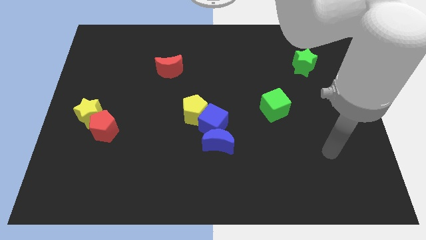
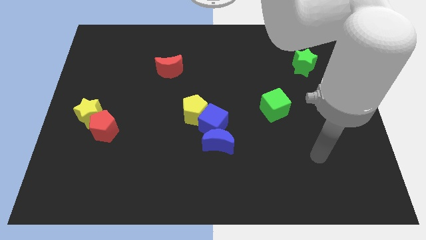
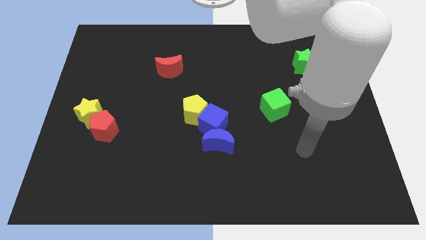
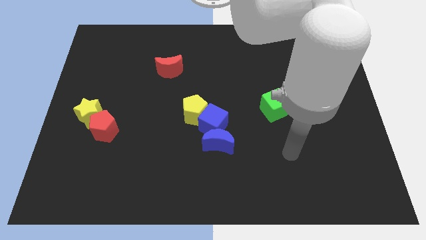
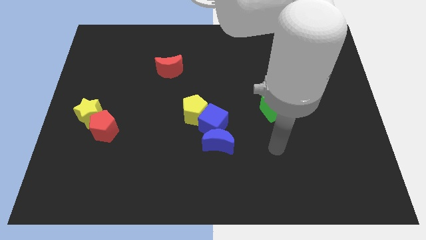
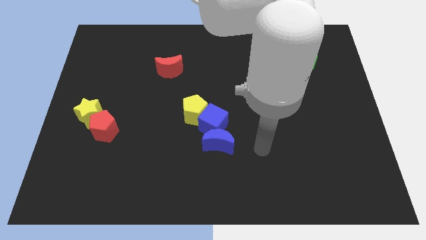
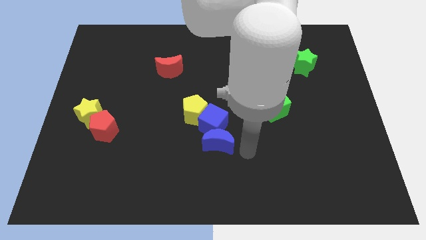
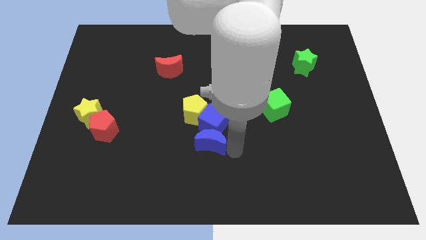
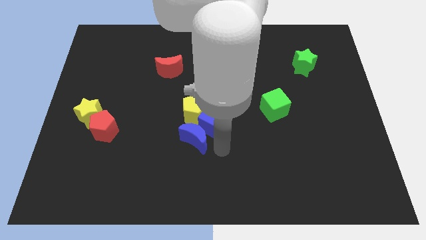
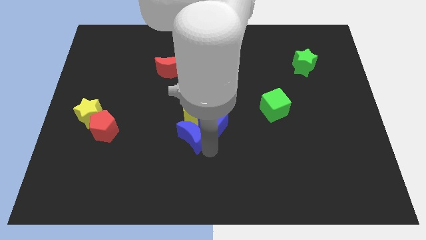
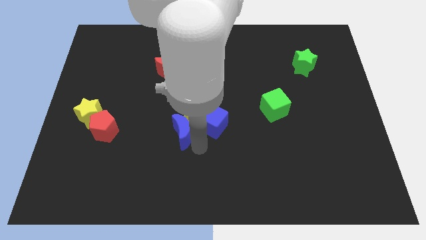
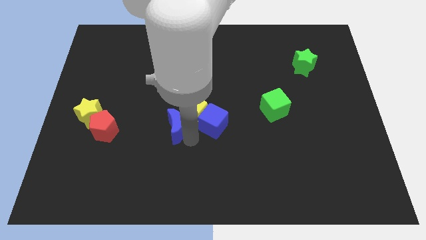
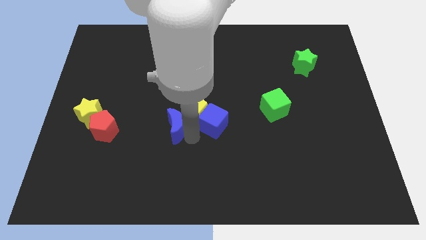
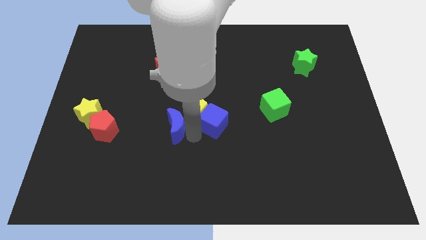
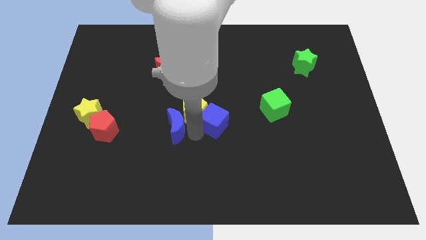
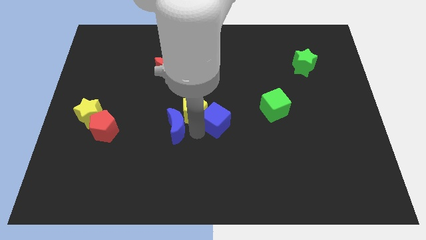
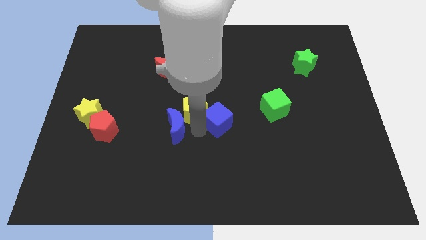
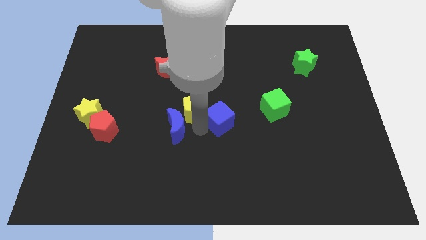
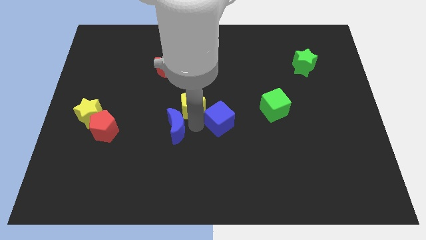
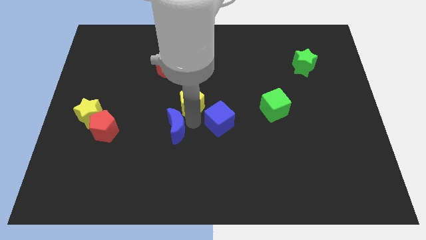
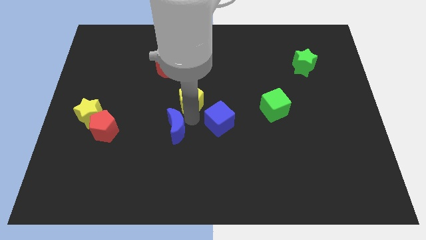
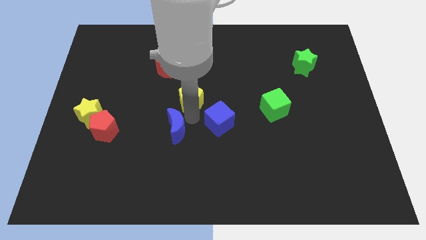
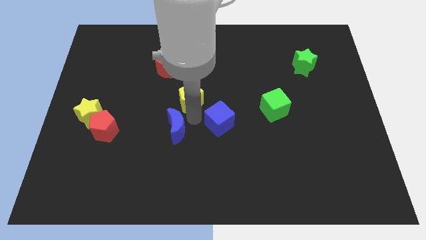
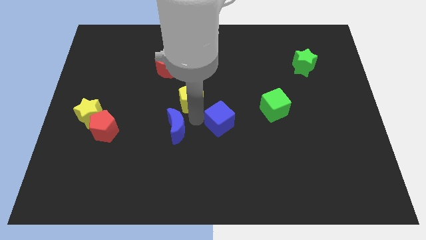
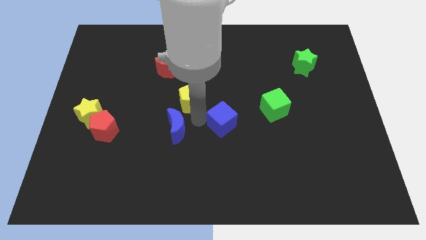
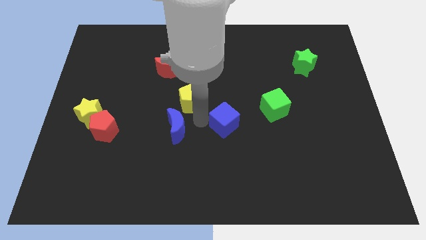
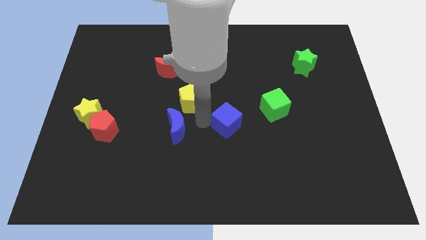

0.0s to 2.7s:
pull the blue cube apart from the yellow pentagon and blue moon

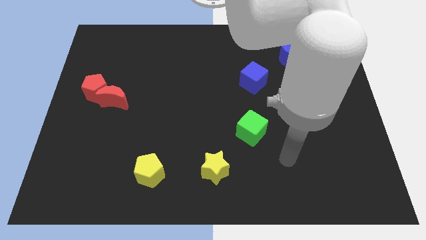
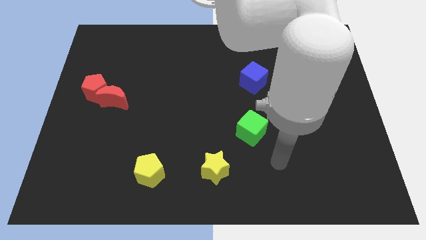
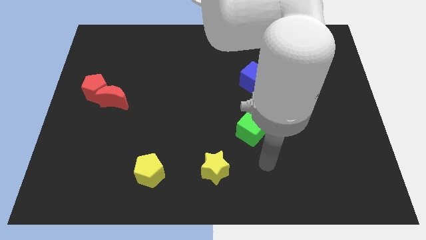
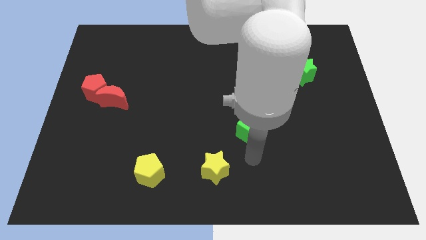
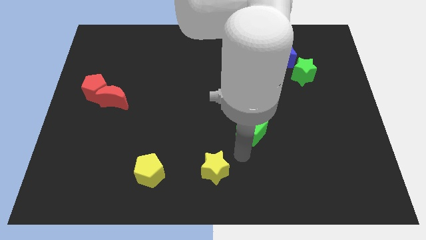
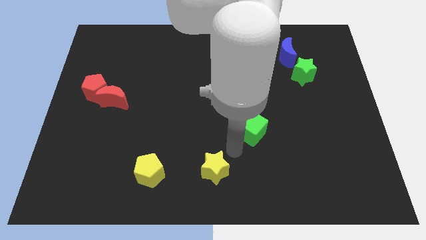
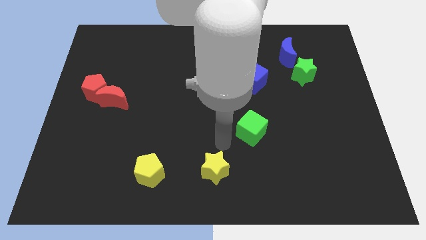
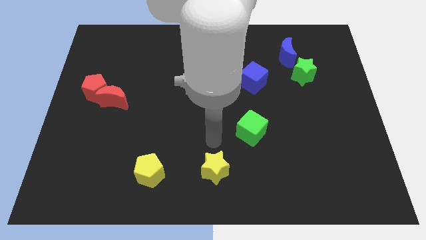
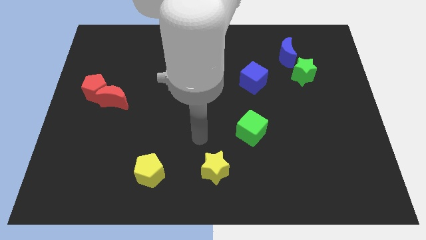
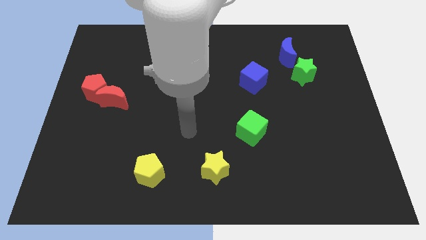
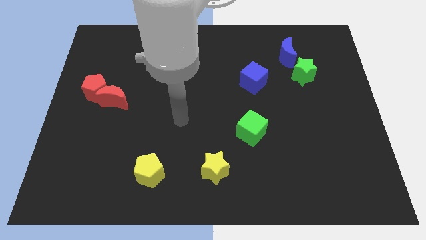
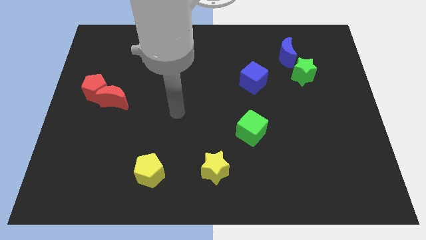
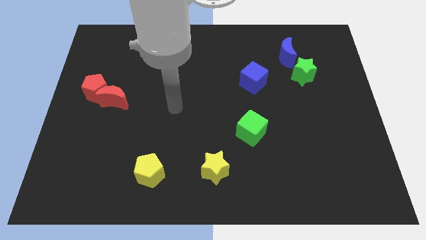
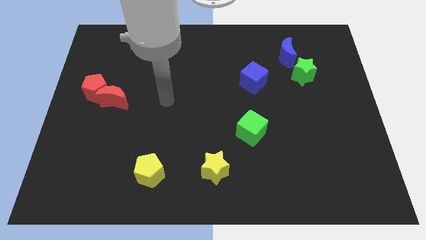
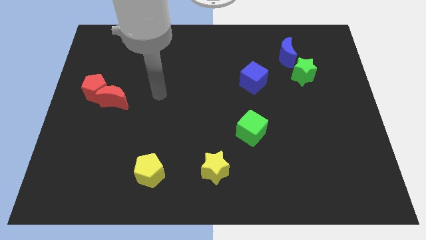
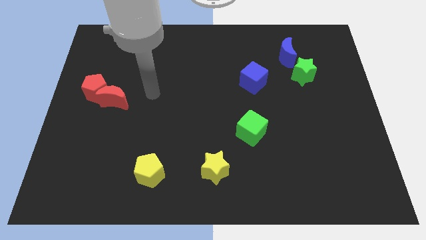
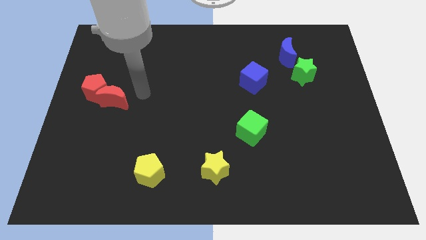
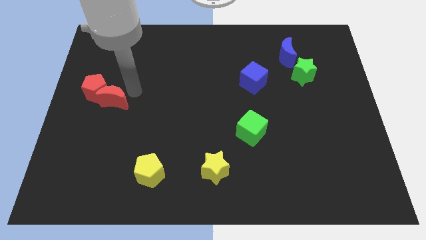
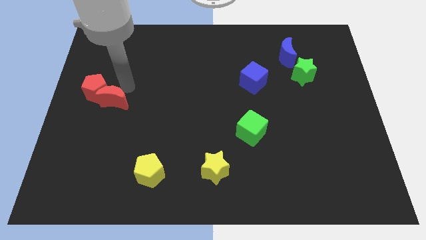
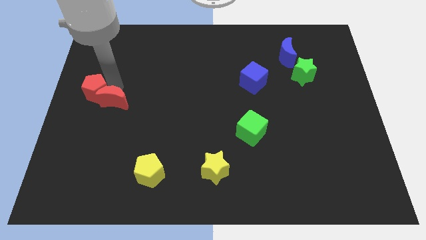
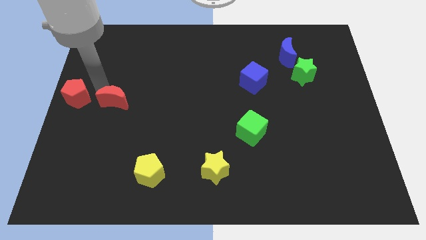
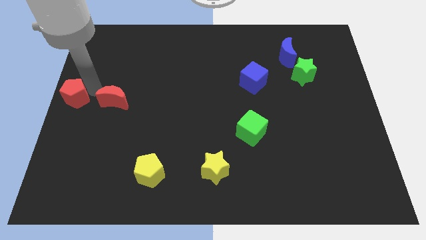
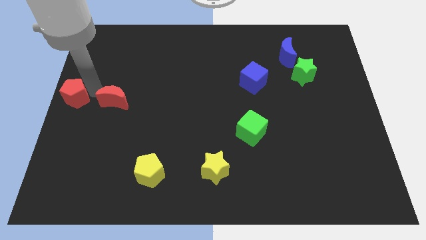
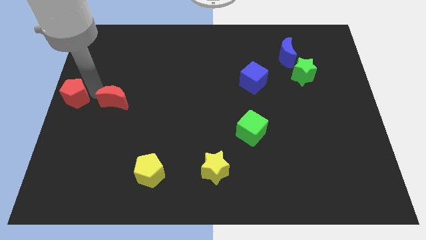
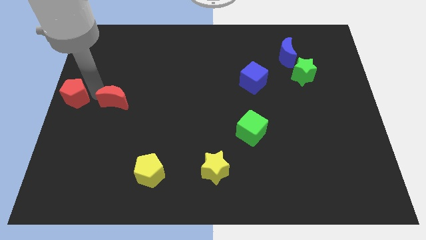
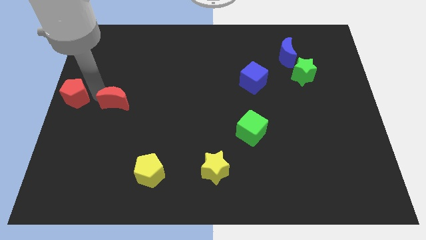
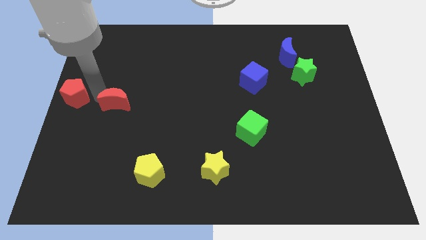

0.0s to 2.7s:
move the red moon away from the red pentagon

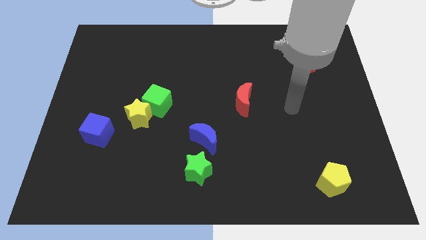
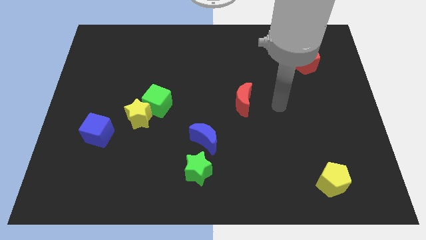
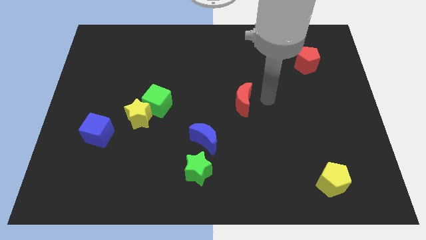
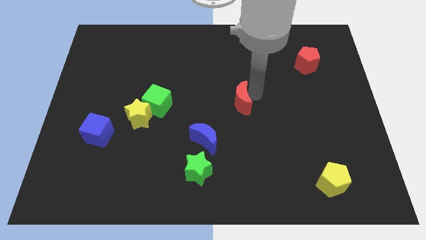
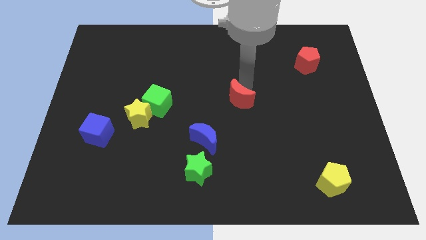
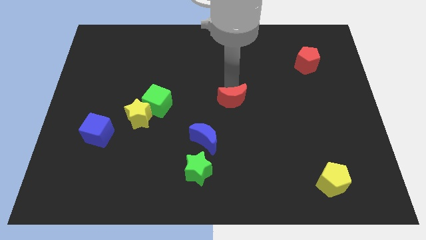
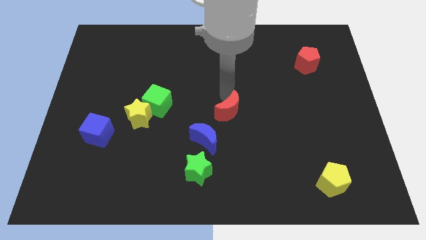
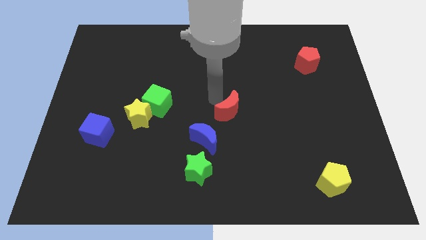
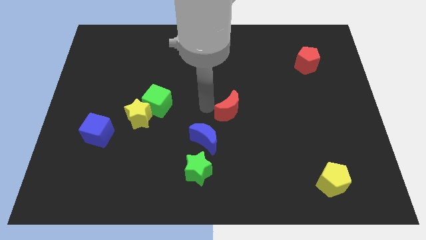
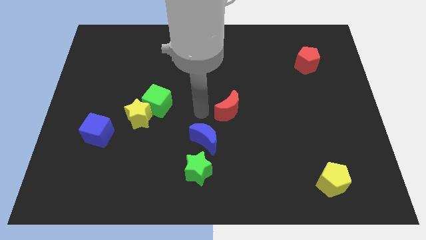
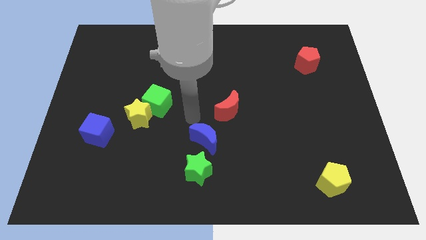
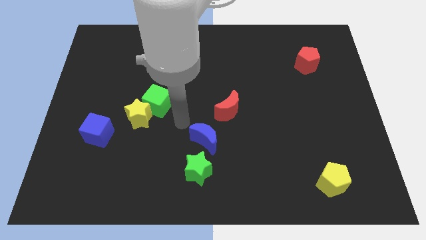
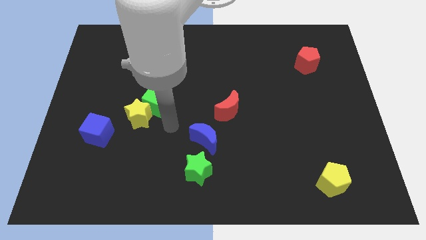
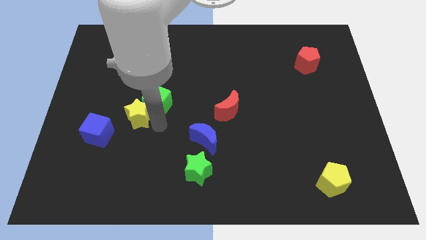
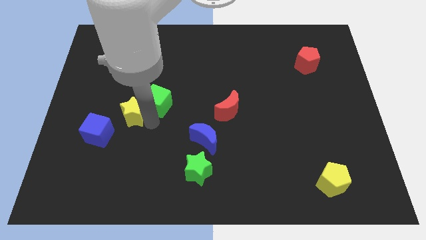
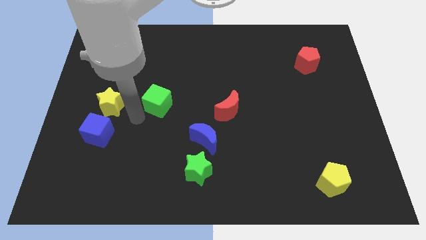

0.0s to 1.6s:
separate the green cube from the yellow star

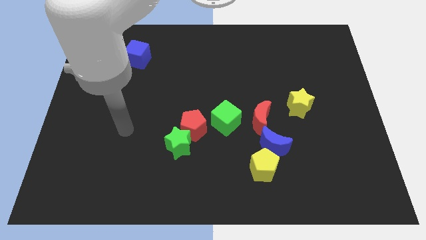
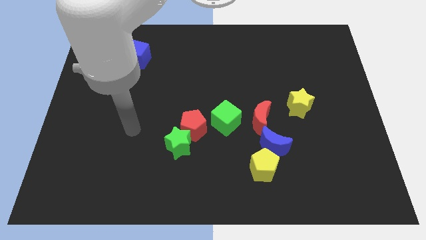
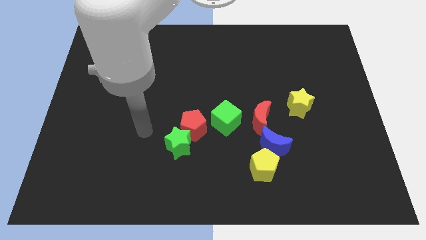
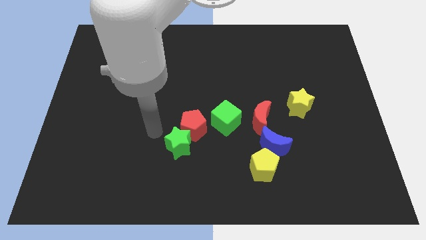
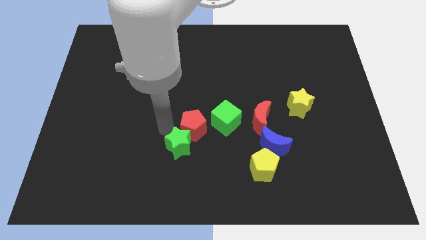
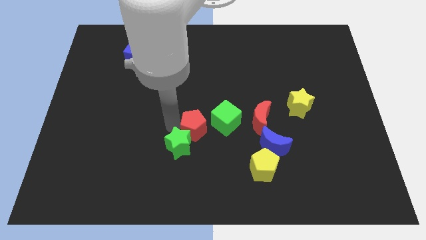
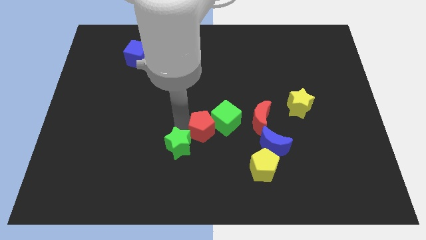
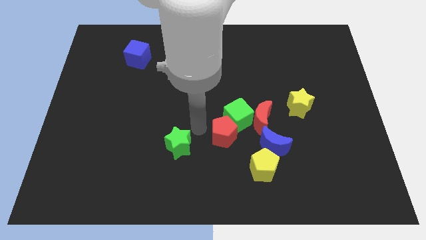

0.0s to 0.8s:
separate the green star from the red pentagon

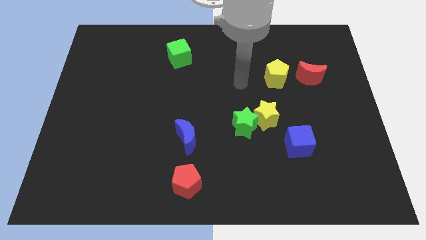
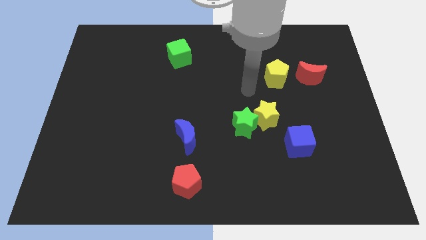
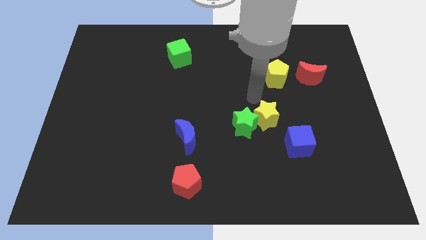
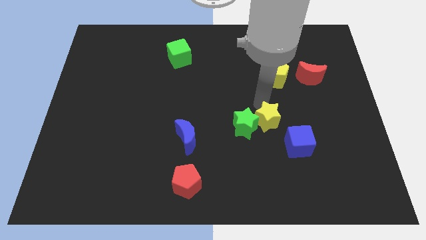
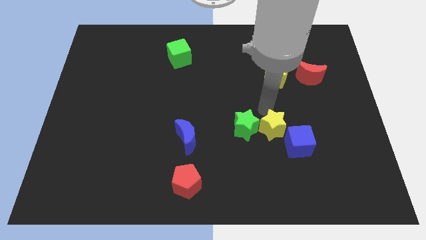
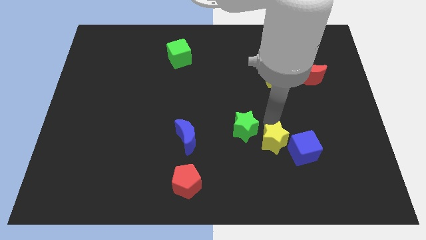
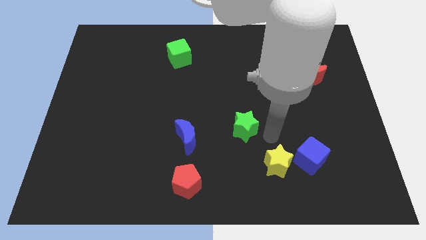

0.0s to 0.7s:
separate the green star from the yellow star

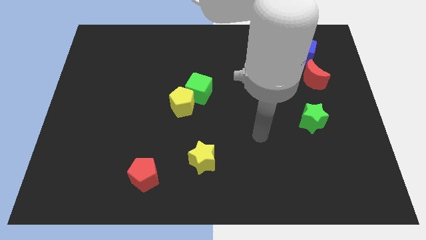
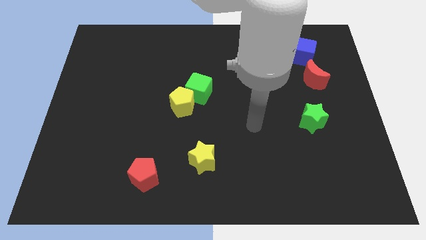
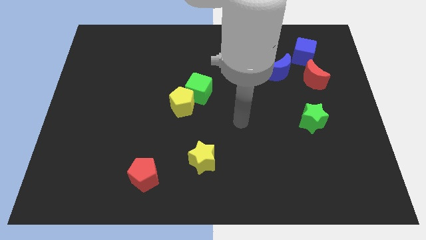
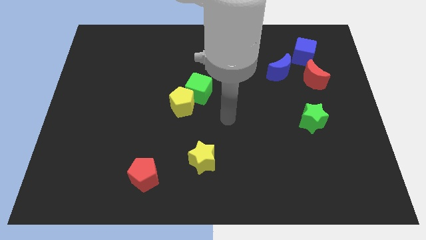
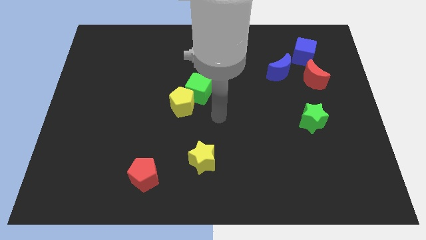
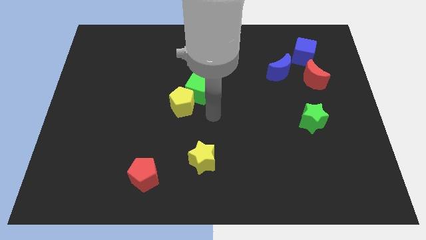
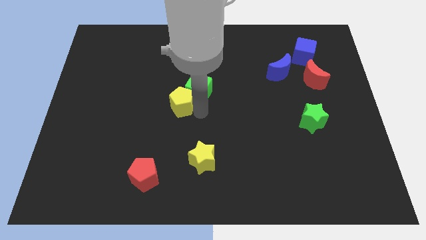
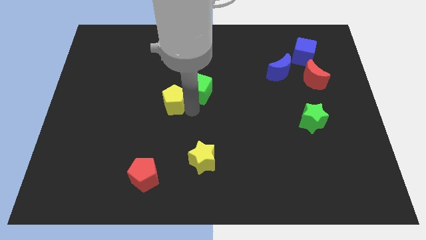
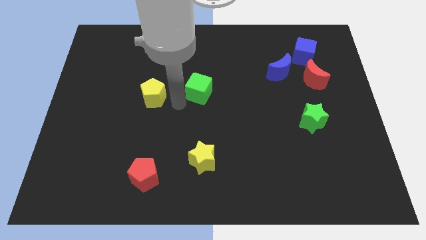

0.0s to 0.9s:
pull the green cube apart from the yellow pentagon
